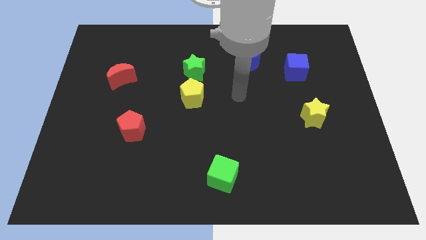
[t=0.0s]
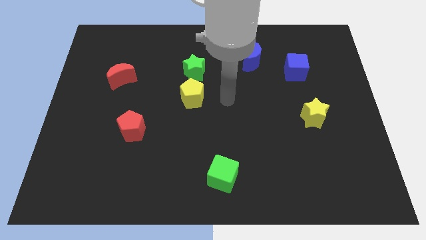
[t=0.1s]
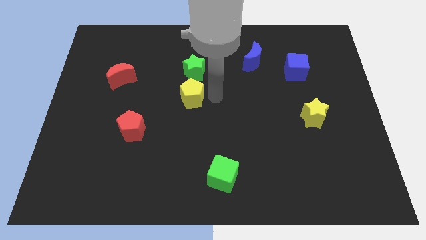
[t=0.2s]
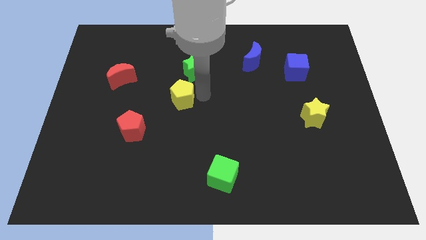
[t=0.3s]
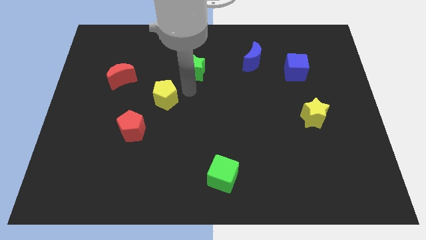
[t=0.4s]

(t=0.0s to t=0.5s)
move the green star away from the yellow pentagon

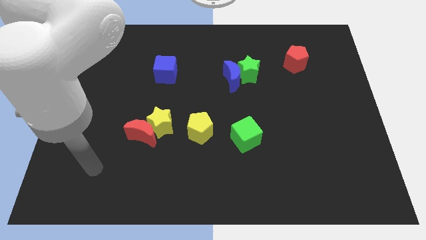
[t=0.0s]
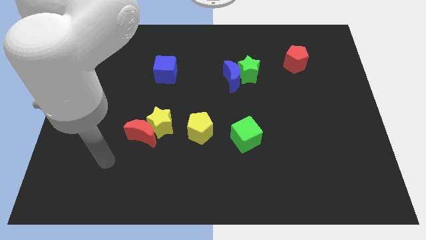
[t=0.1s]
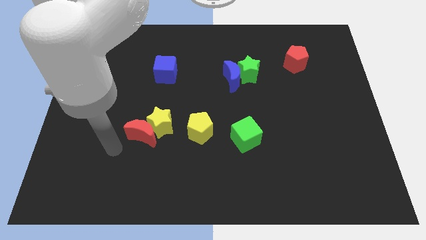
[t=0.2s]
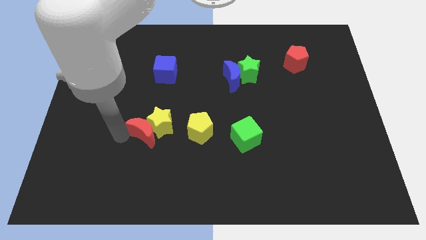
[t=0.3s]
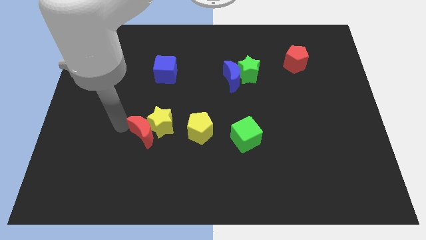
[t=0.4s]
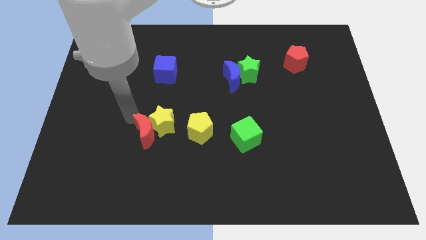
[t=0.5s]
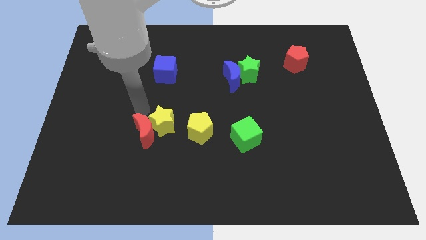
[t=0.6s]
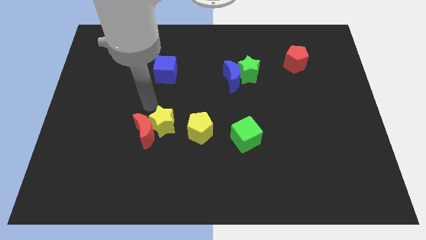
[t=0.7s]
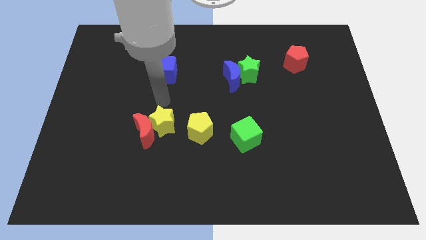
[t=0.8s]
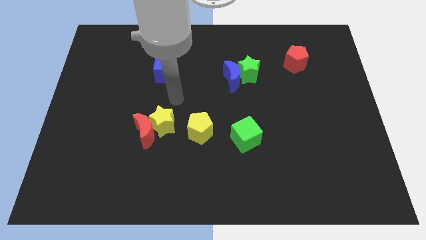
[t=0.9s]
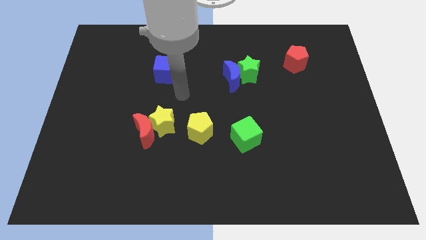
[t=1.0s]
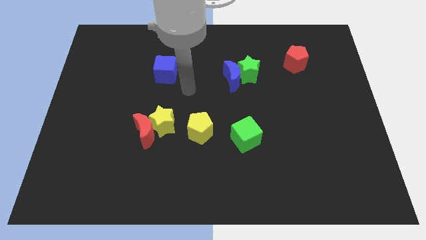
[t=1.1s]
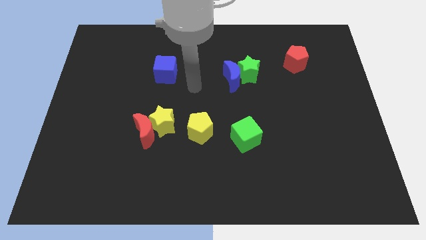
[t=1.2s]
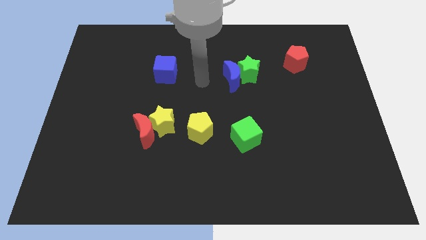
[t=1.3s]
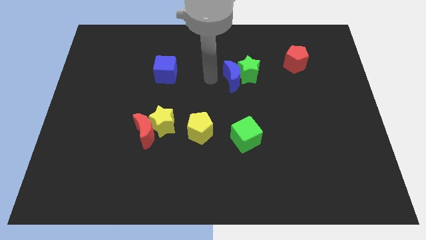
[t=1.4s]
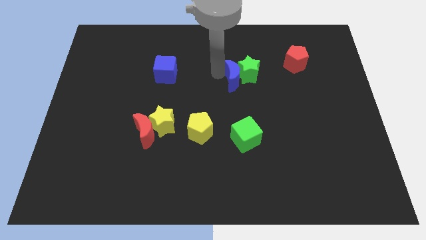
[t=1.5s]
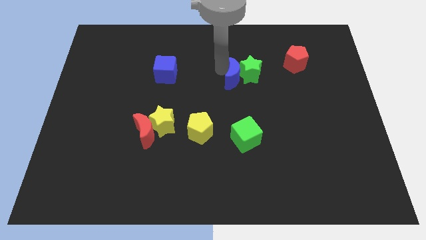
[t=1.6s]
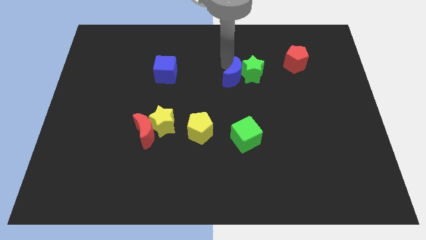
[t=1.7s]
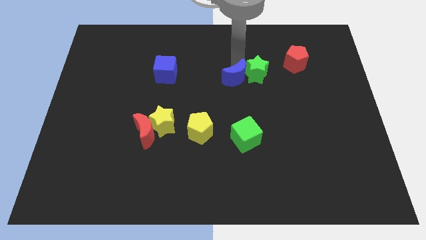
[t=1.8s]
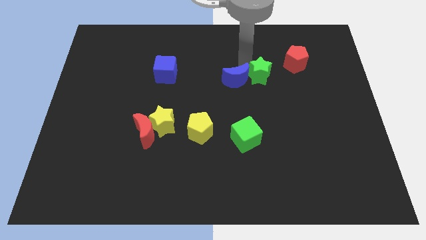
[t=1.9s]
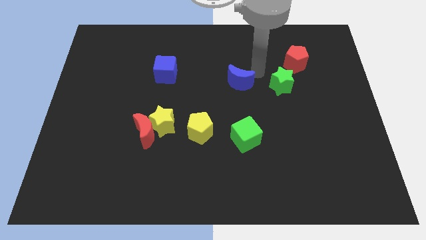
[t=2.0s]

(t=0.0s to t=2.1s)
pull the blue moon apart from the green star

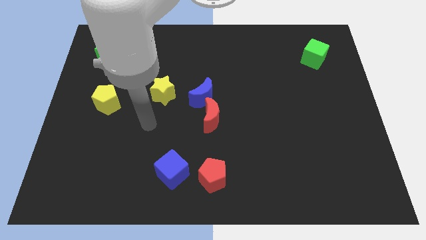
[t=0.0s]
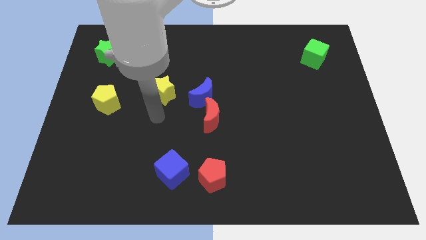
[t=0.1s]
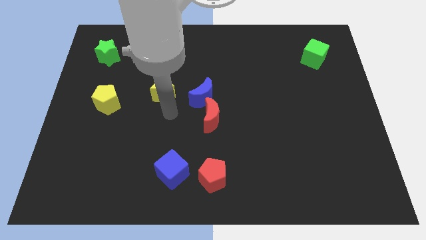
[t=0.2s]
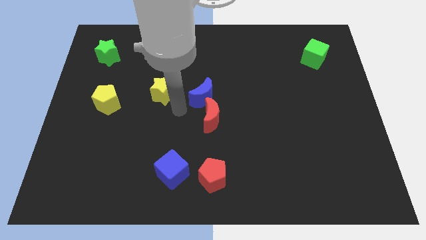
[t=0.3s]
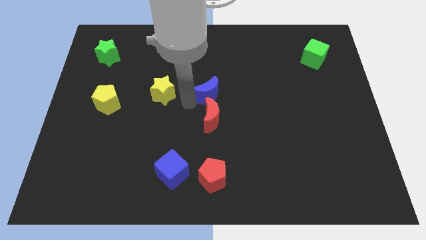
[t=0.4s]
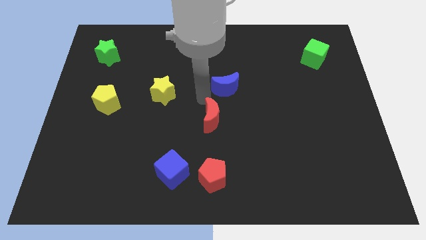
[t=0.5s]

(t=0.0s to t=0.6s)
separate the red moon from the blue moon

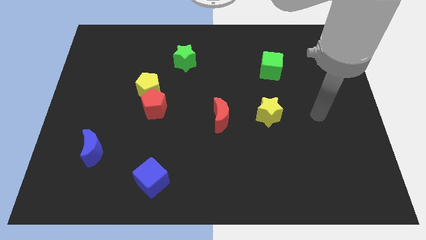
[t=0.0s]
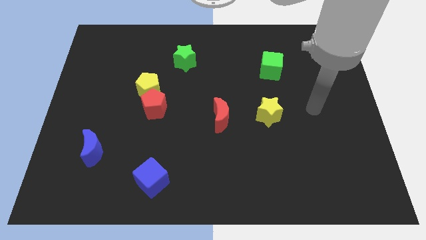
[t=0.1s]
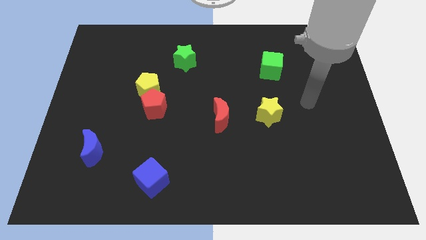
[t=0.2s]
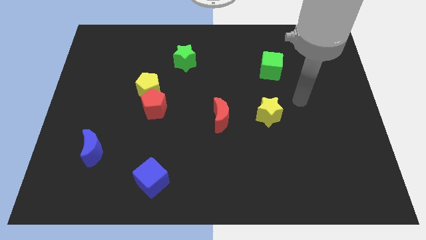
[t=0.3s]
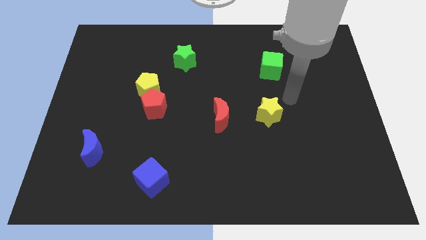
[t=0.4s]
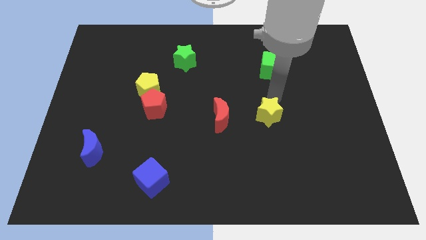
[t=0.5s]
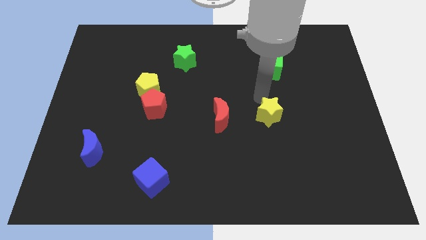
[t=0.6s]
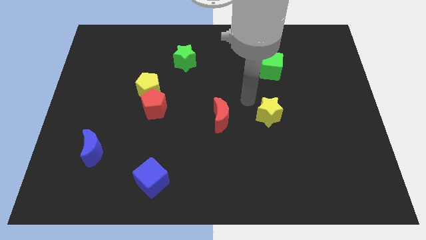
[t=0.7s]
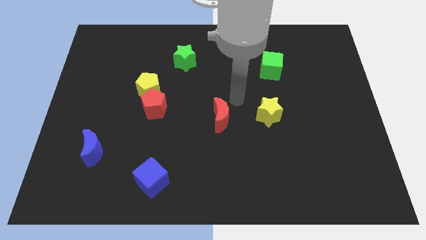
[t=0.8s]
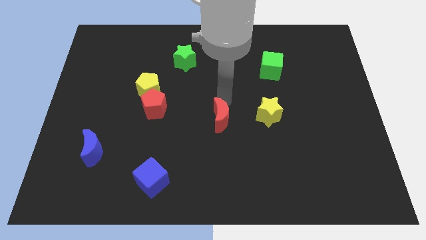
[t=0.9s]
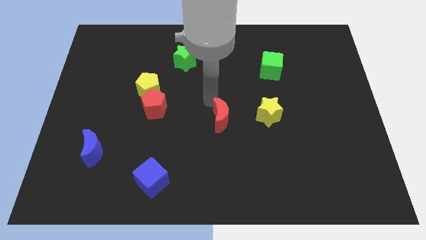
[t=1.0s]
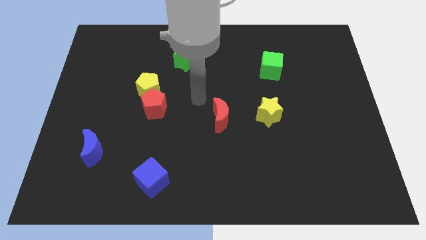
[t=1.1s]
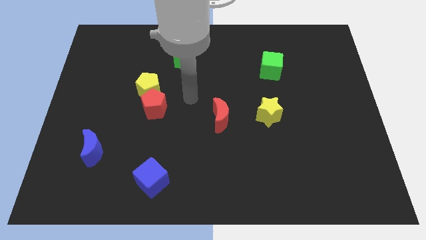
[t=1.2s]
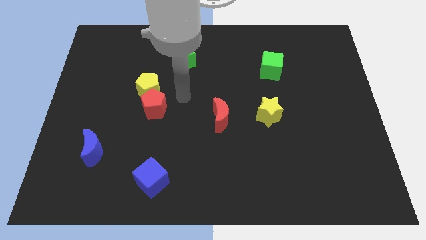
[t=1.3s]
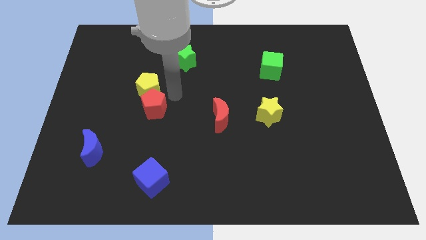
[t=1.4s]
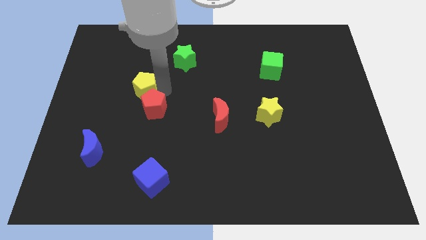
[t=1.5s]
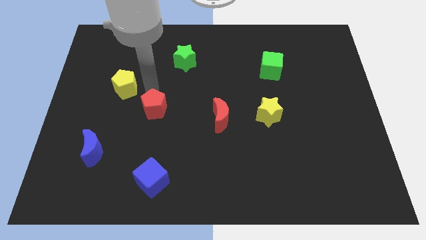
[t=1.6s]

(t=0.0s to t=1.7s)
pull the red pentagon apart from the yellow pentagon

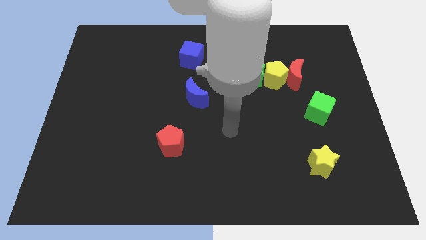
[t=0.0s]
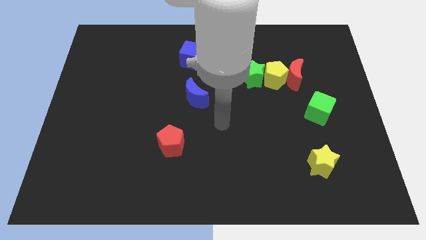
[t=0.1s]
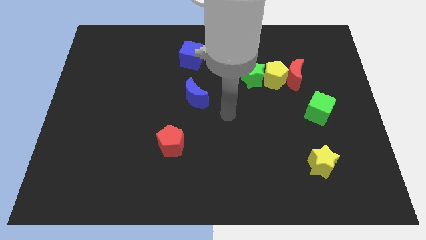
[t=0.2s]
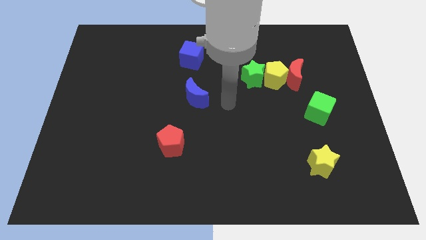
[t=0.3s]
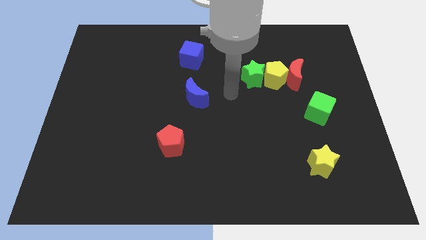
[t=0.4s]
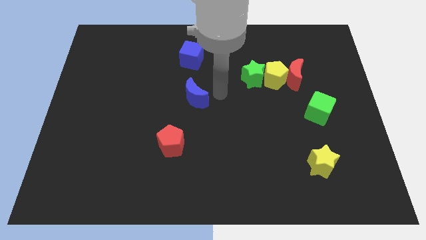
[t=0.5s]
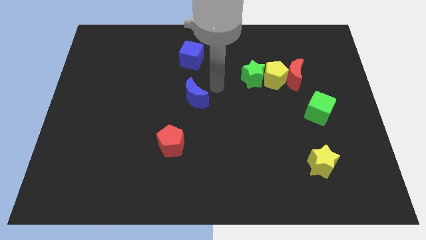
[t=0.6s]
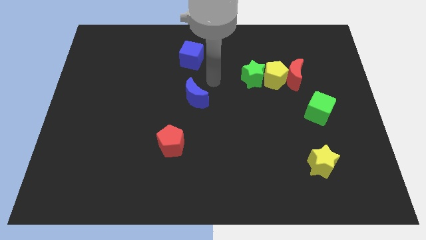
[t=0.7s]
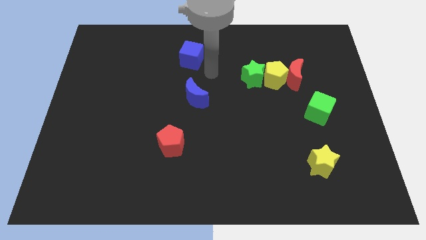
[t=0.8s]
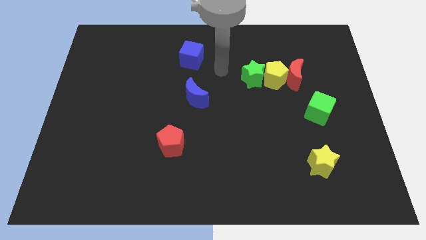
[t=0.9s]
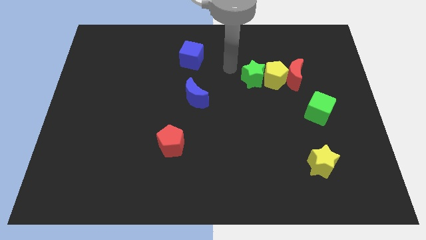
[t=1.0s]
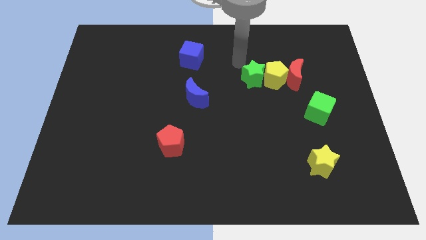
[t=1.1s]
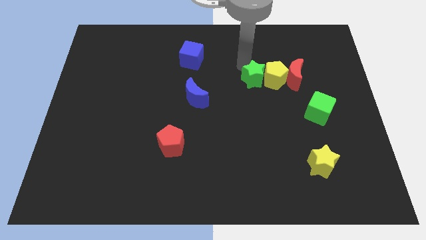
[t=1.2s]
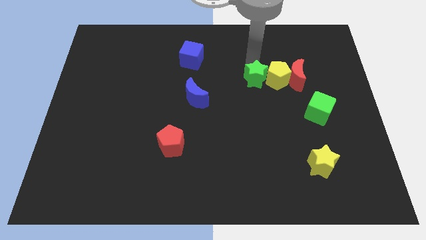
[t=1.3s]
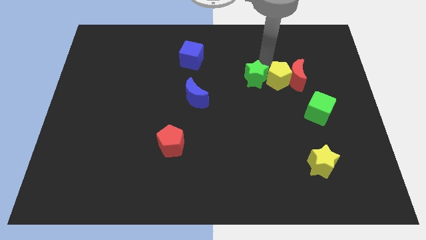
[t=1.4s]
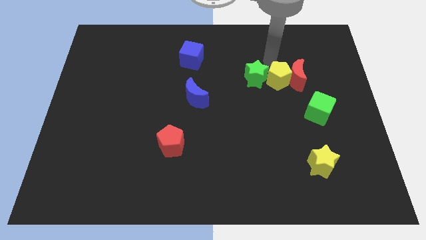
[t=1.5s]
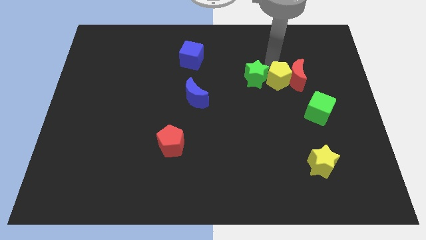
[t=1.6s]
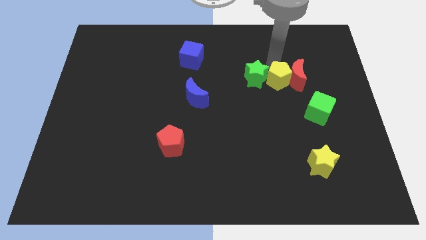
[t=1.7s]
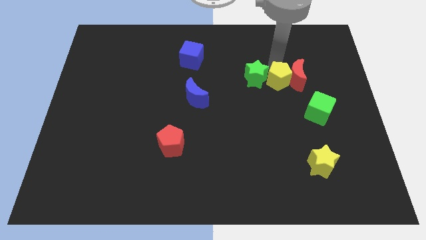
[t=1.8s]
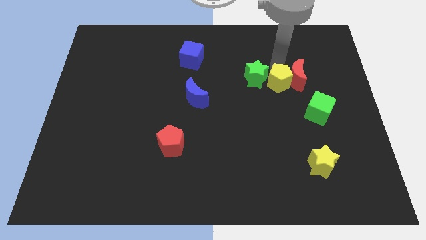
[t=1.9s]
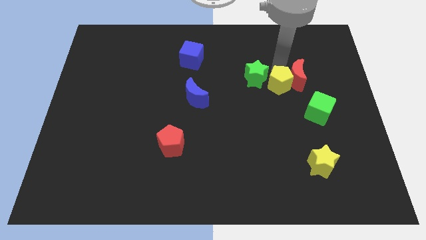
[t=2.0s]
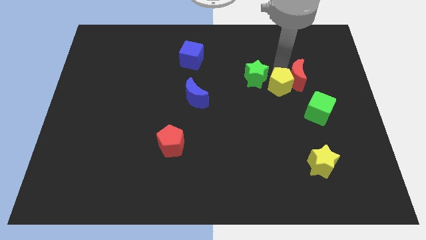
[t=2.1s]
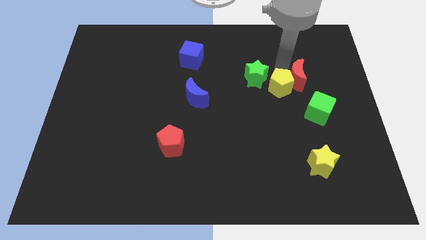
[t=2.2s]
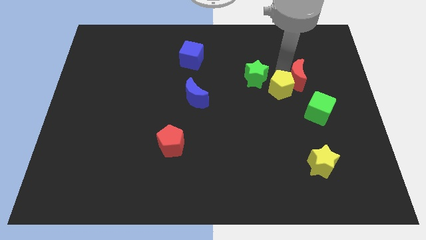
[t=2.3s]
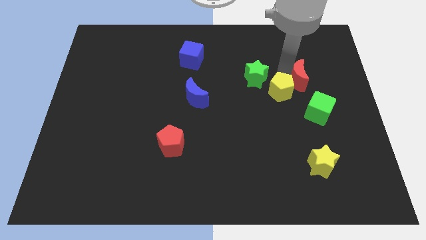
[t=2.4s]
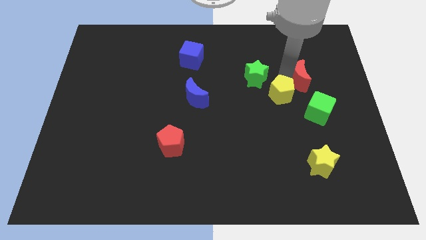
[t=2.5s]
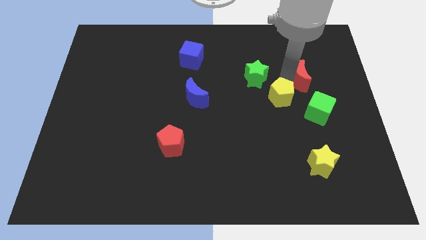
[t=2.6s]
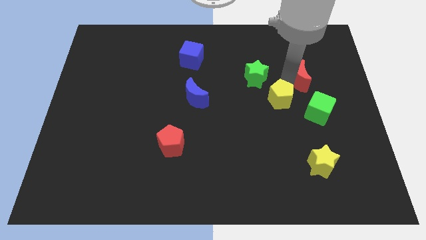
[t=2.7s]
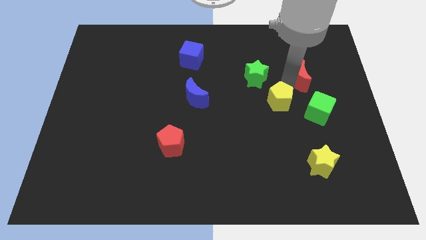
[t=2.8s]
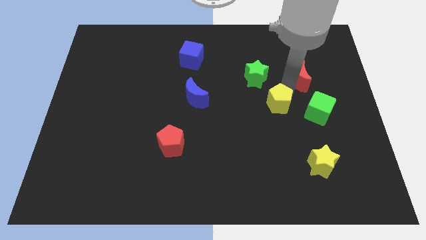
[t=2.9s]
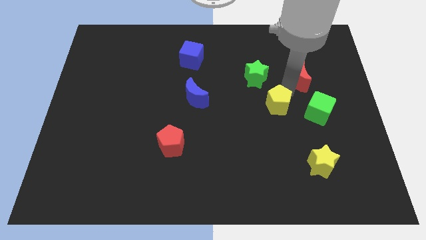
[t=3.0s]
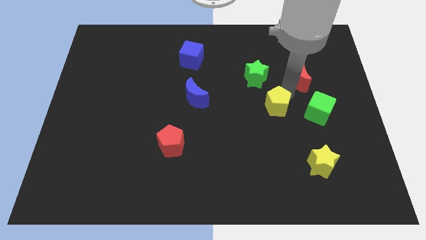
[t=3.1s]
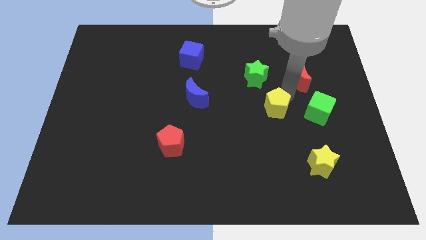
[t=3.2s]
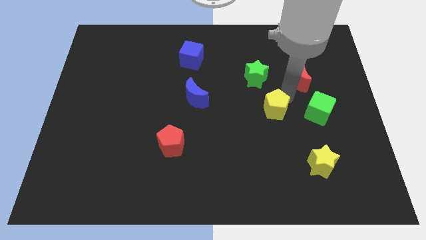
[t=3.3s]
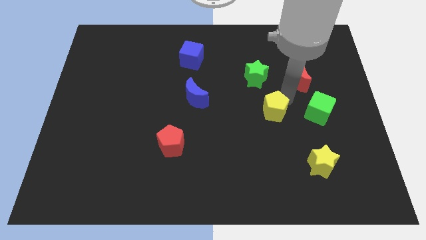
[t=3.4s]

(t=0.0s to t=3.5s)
move the yellow pentagon away from the red moon and green star

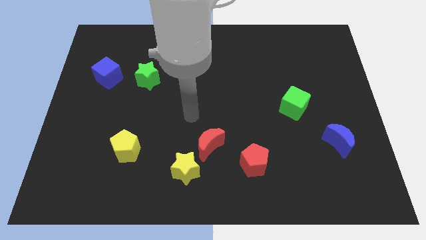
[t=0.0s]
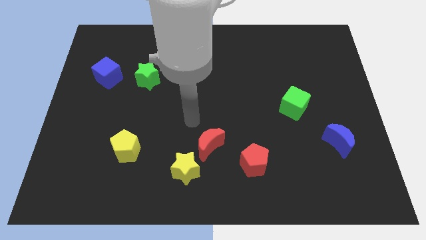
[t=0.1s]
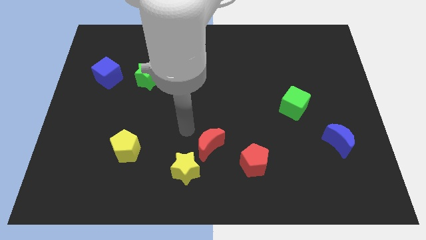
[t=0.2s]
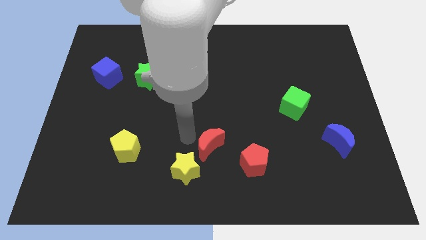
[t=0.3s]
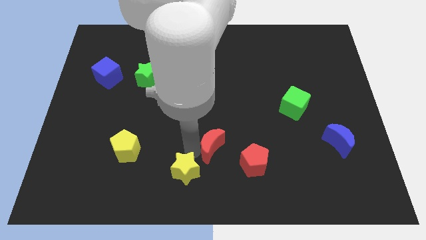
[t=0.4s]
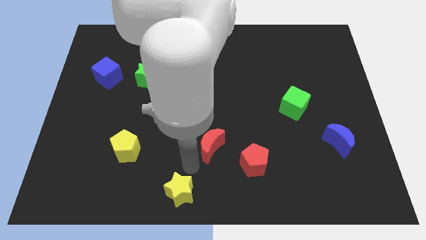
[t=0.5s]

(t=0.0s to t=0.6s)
pull the red moon apart from the yellow star

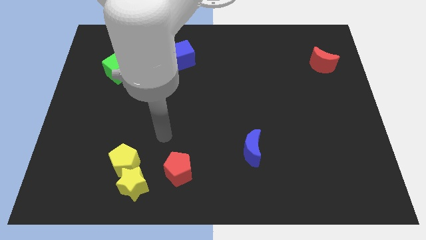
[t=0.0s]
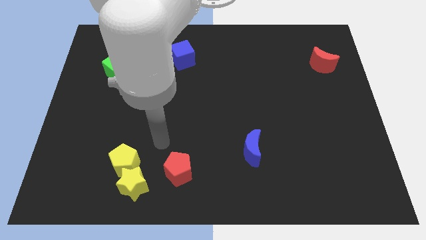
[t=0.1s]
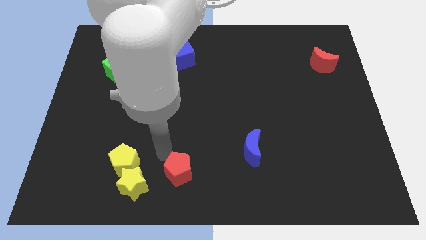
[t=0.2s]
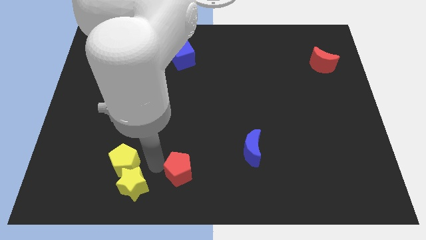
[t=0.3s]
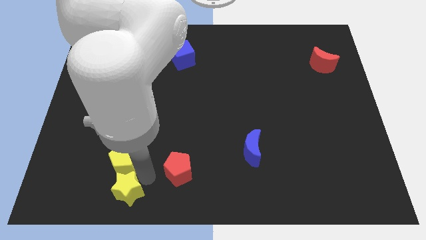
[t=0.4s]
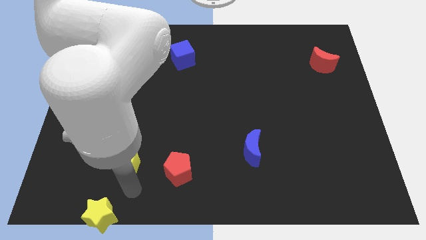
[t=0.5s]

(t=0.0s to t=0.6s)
separate the yellow pentagon from the yellow star
